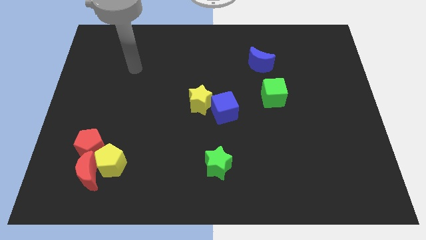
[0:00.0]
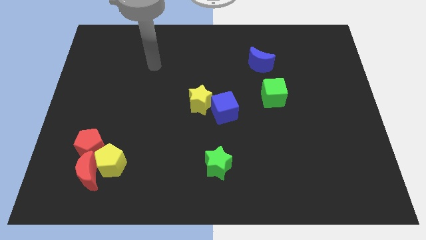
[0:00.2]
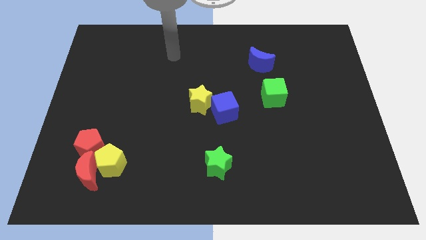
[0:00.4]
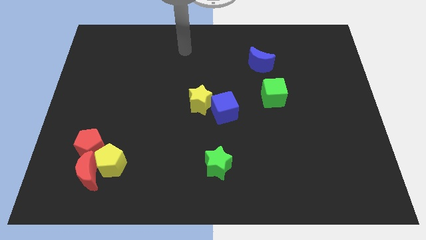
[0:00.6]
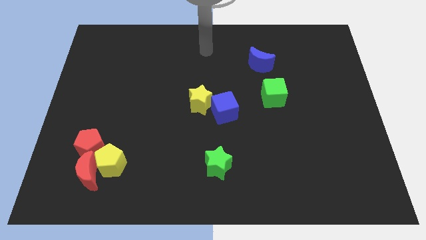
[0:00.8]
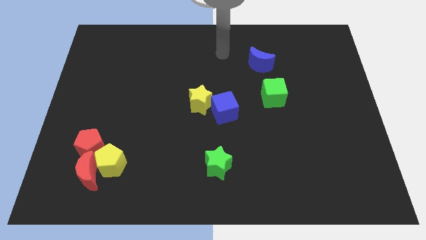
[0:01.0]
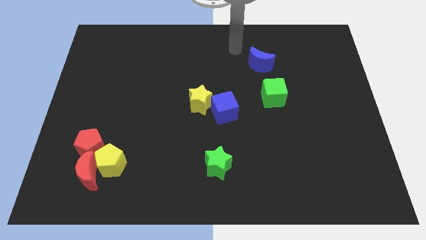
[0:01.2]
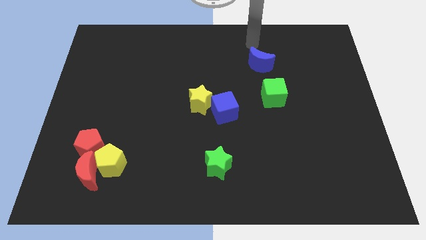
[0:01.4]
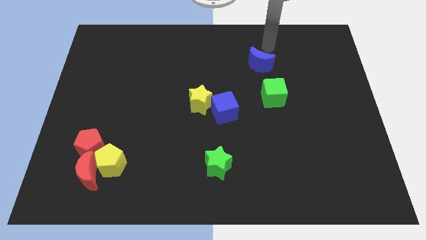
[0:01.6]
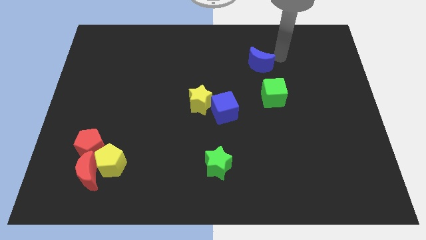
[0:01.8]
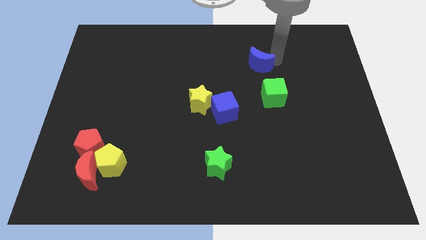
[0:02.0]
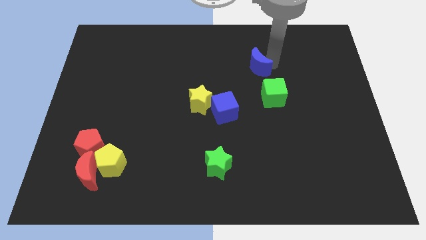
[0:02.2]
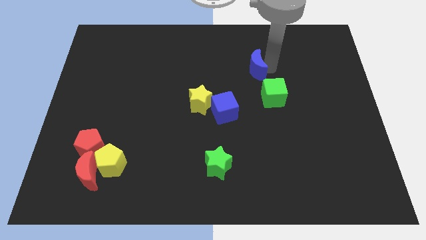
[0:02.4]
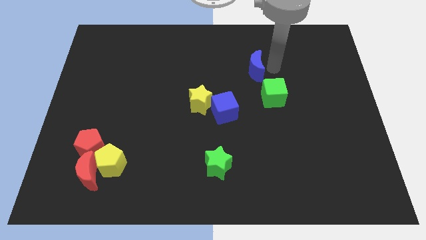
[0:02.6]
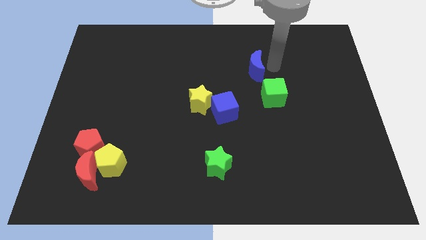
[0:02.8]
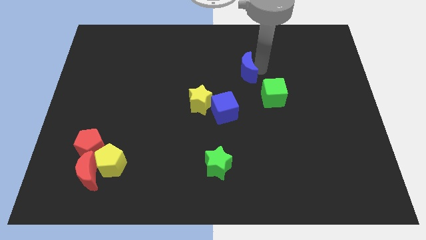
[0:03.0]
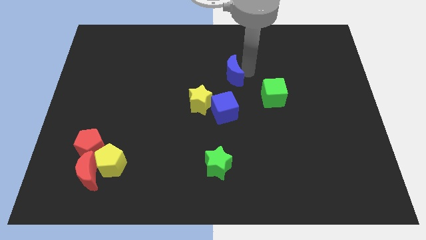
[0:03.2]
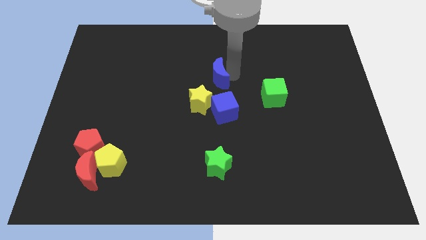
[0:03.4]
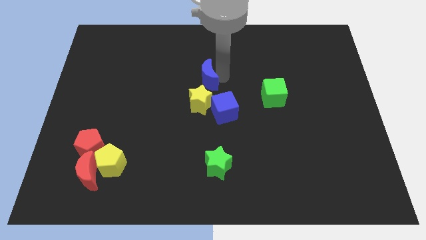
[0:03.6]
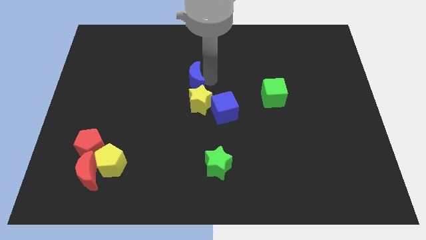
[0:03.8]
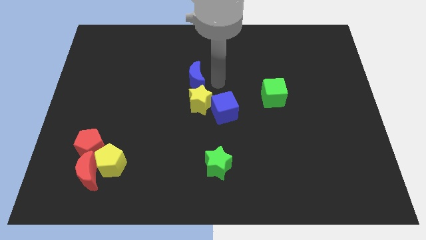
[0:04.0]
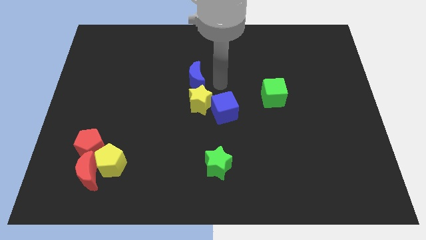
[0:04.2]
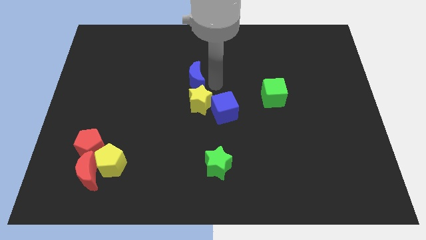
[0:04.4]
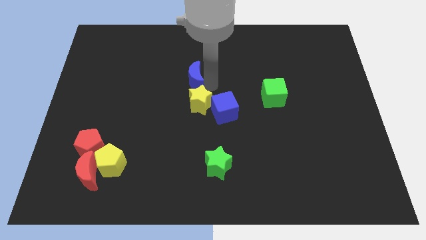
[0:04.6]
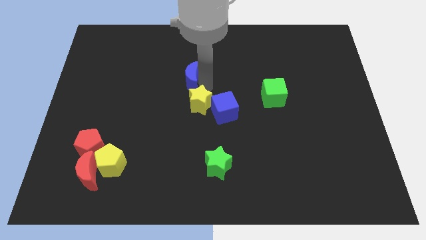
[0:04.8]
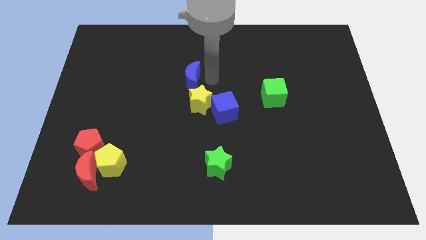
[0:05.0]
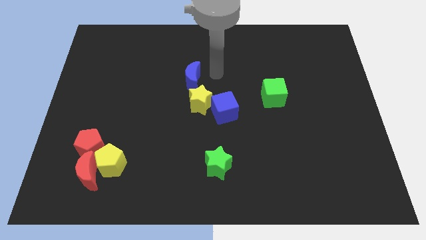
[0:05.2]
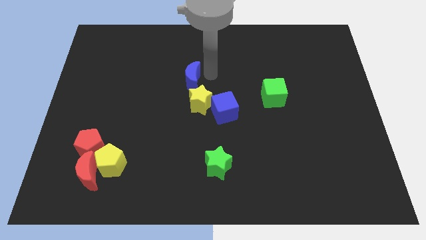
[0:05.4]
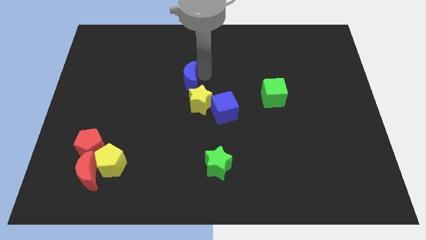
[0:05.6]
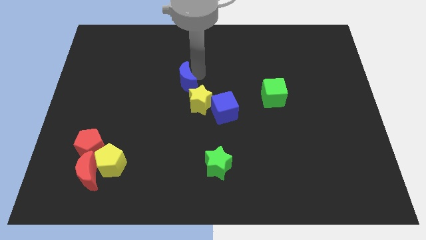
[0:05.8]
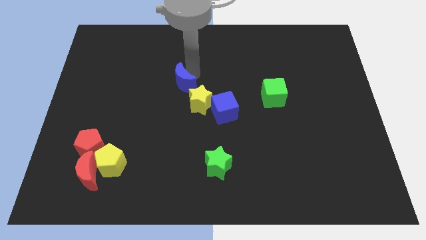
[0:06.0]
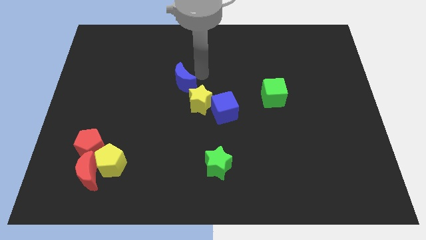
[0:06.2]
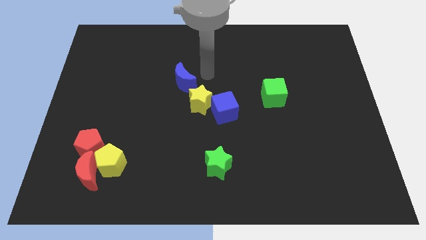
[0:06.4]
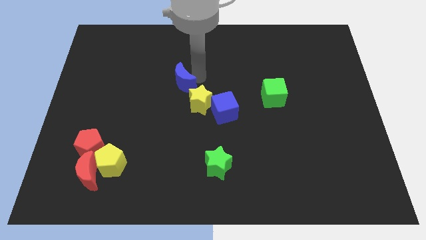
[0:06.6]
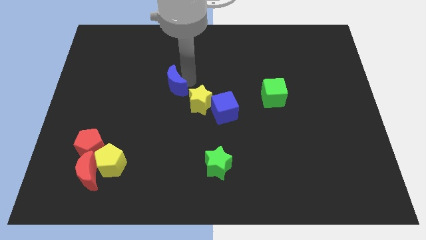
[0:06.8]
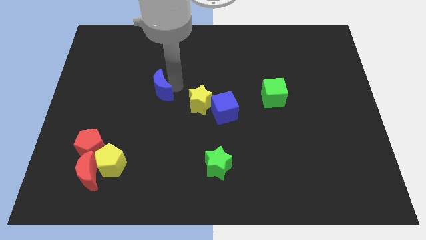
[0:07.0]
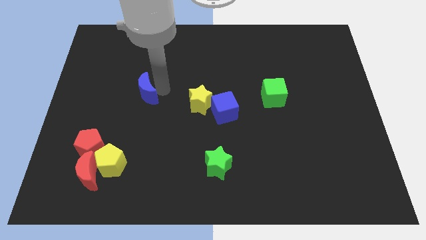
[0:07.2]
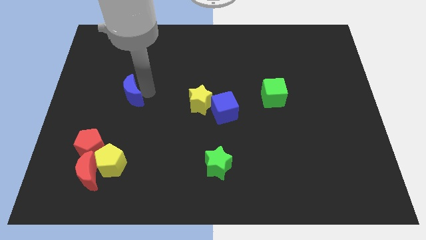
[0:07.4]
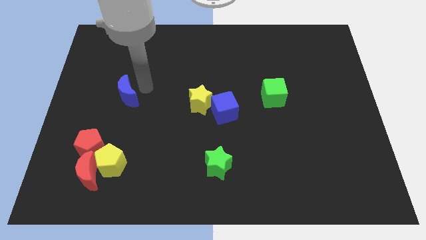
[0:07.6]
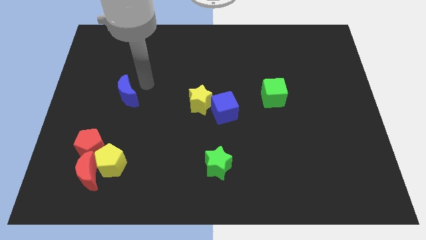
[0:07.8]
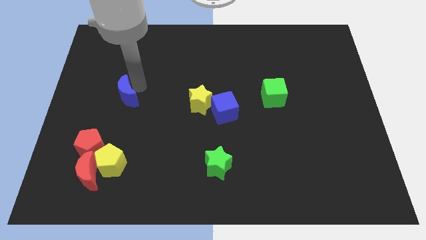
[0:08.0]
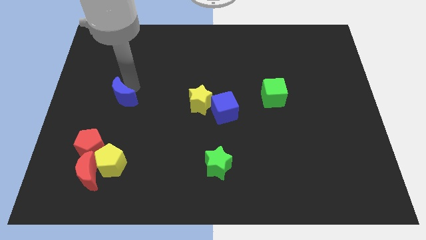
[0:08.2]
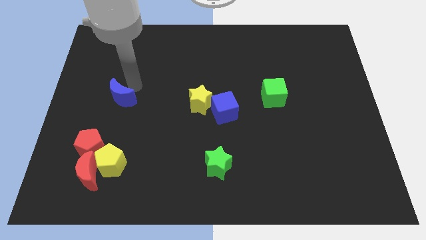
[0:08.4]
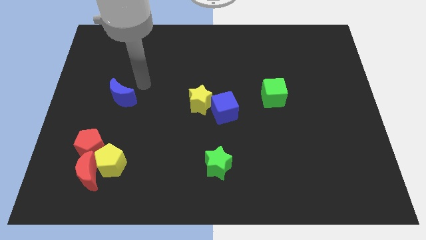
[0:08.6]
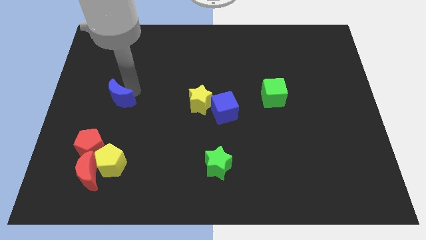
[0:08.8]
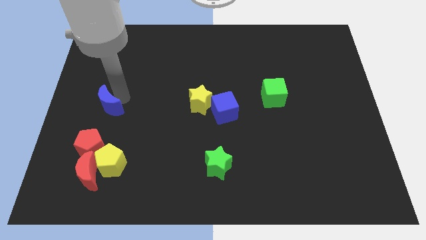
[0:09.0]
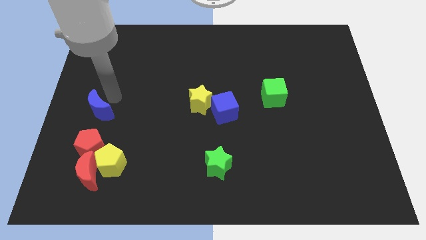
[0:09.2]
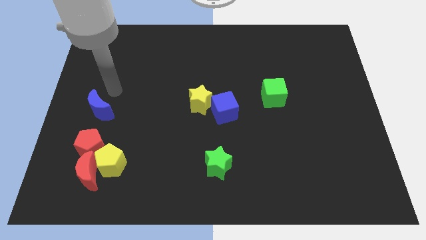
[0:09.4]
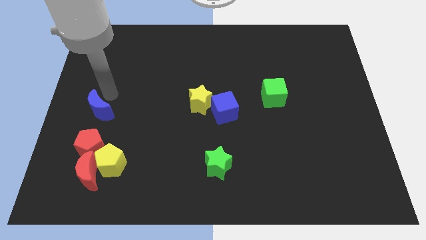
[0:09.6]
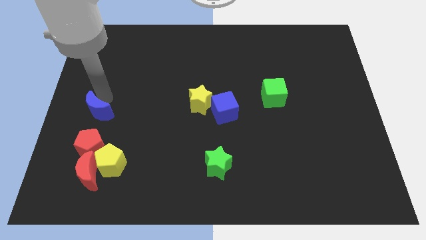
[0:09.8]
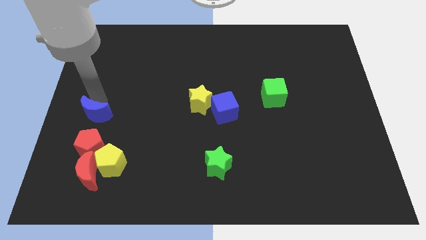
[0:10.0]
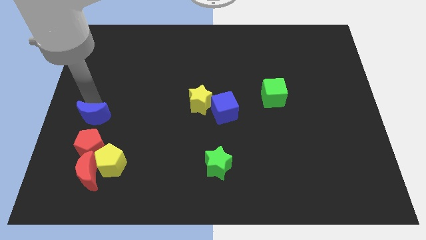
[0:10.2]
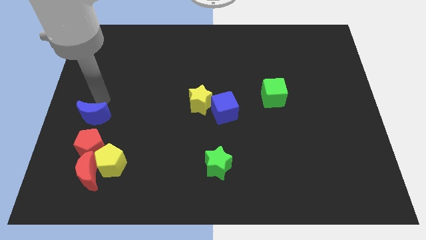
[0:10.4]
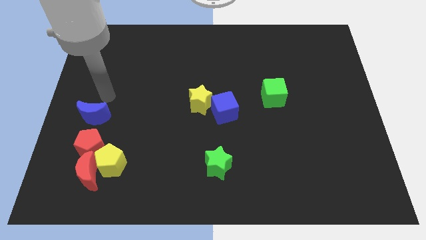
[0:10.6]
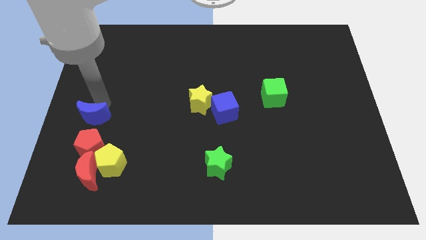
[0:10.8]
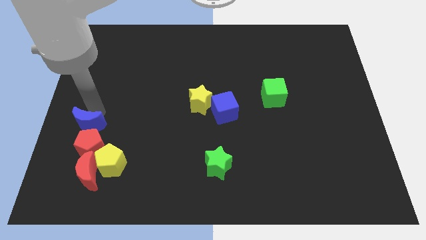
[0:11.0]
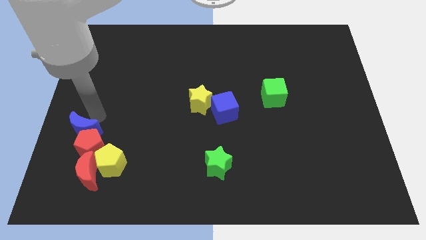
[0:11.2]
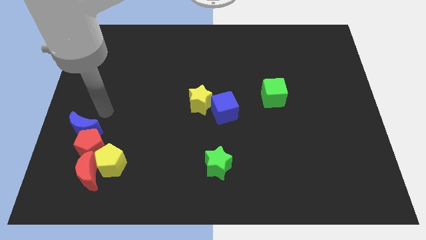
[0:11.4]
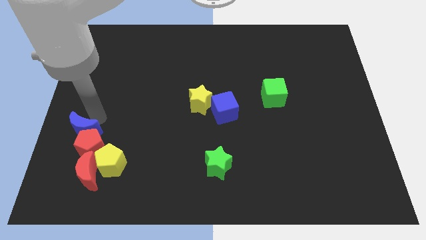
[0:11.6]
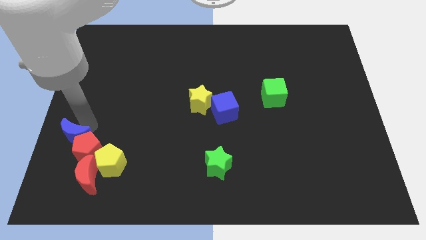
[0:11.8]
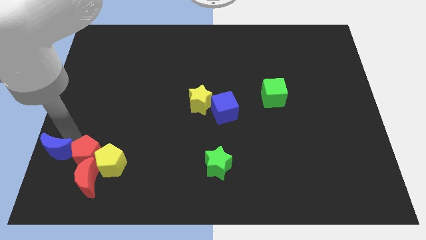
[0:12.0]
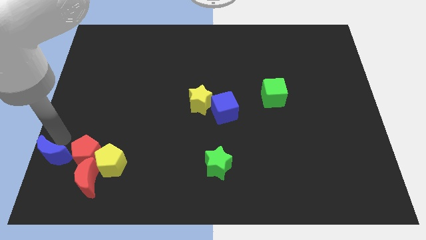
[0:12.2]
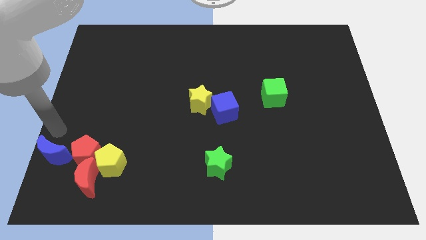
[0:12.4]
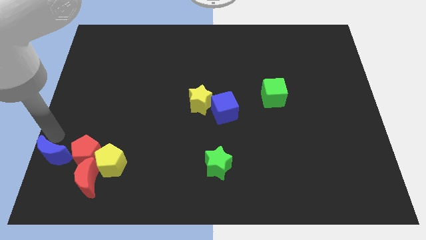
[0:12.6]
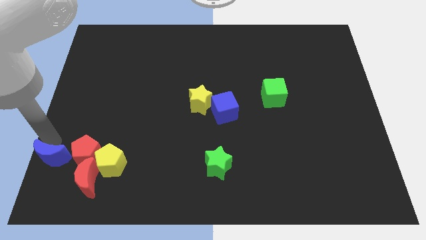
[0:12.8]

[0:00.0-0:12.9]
put the blue moon to the lower left corner

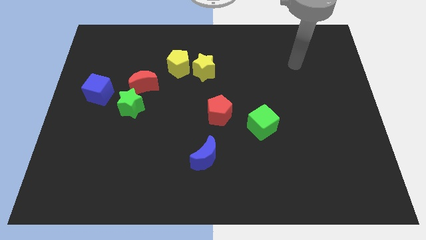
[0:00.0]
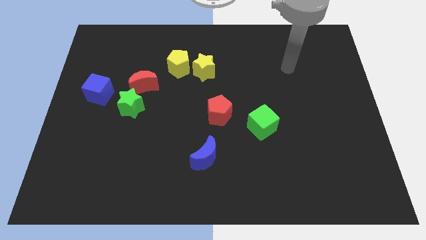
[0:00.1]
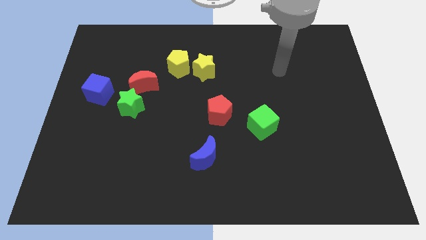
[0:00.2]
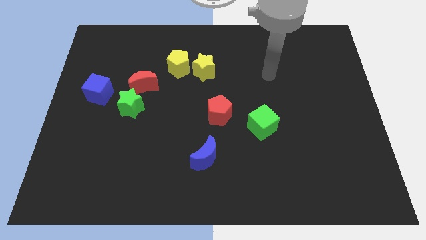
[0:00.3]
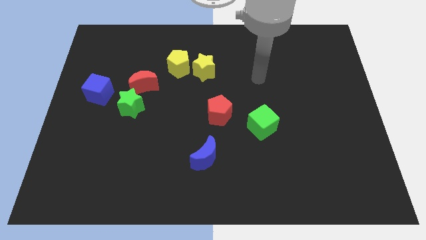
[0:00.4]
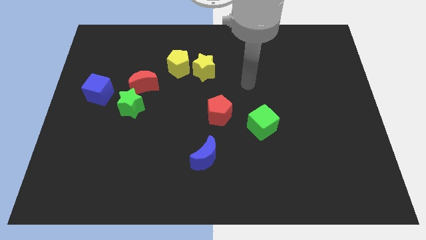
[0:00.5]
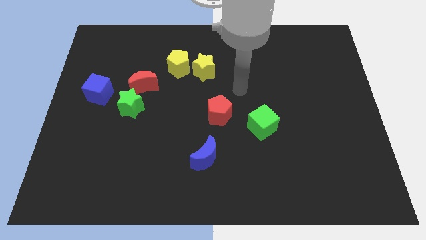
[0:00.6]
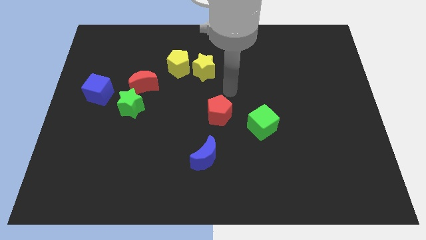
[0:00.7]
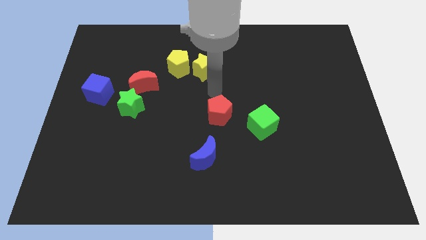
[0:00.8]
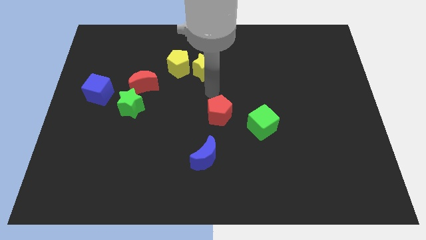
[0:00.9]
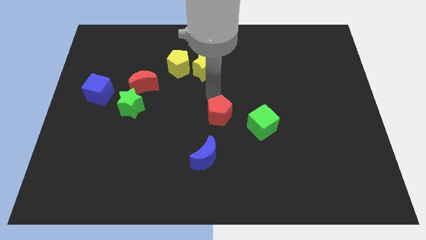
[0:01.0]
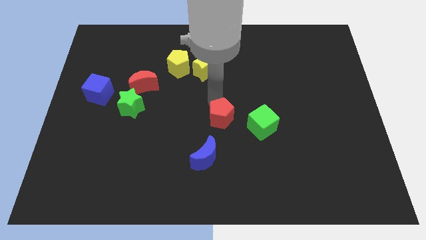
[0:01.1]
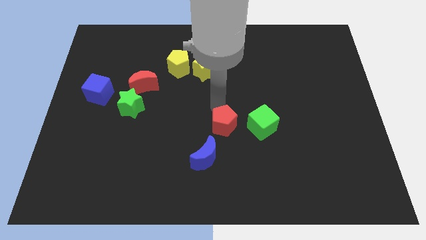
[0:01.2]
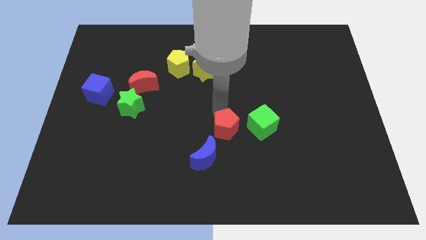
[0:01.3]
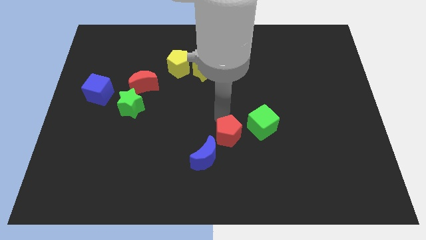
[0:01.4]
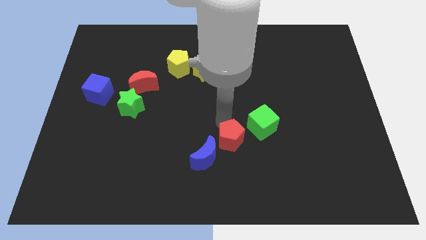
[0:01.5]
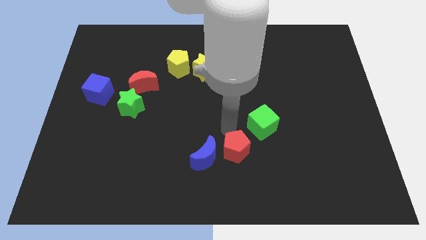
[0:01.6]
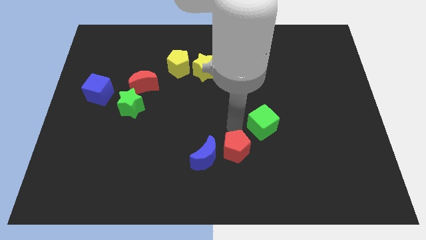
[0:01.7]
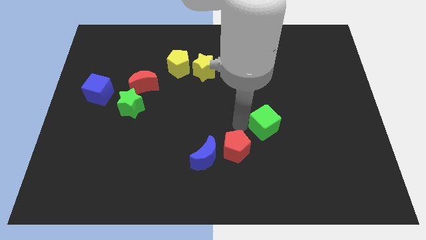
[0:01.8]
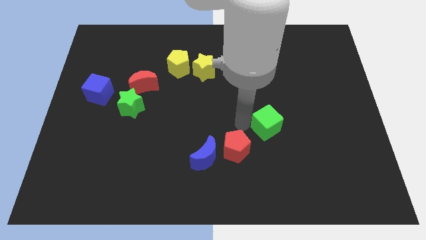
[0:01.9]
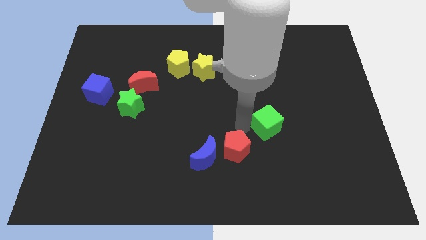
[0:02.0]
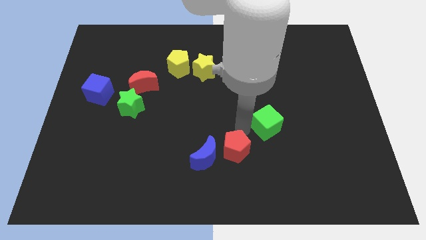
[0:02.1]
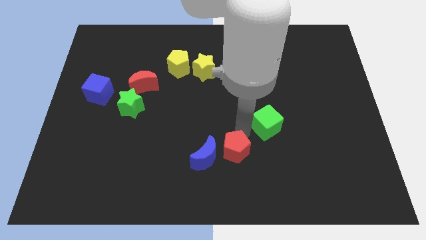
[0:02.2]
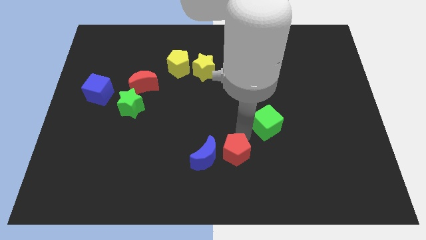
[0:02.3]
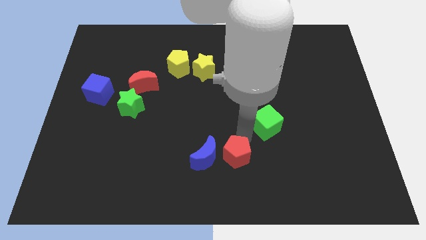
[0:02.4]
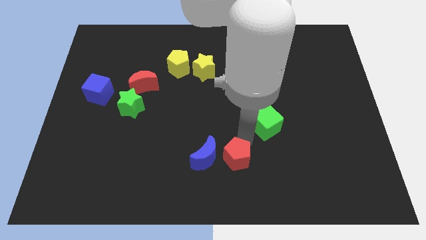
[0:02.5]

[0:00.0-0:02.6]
move the red pentagon to the bottom side
